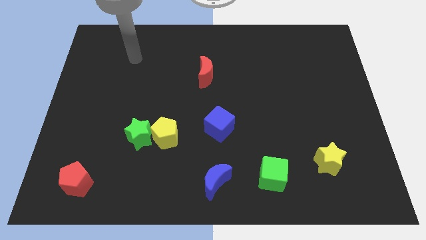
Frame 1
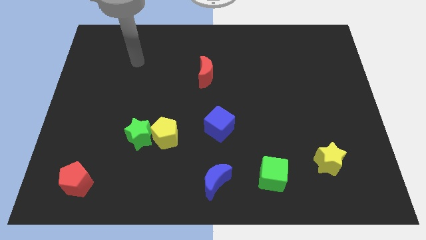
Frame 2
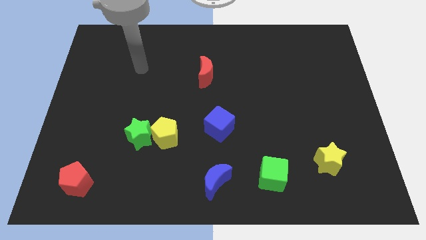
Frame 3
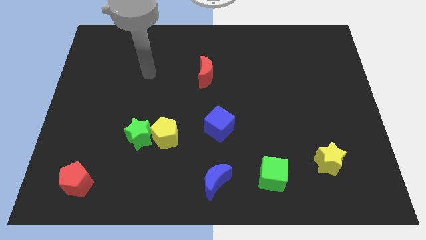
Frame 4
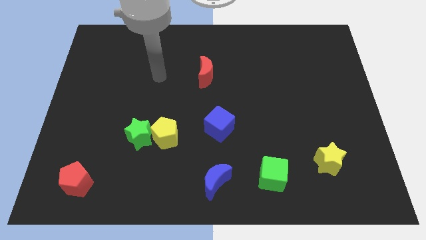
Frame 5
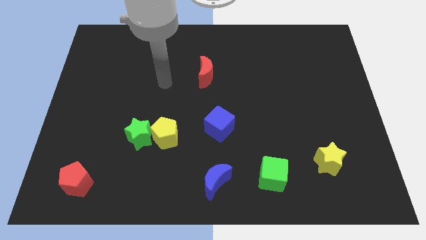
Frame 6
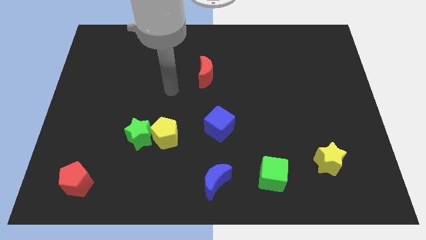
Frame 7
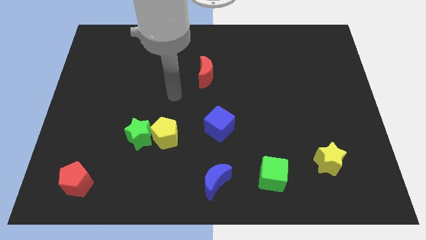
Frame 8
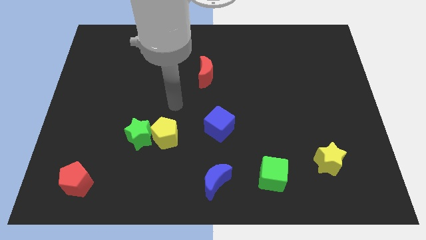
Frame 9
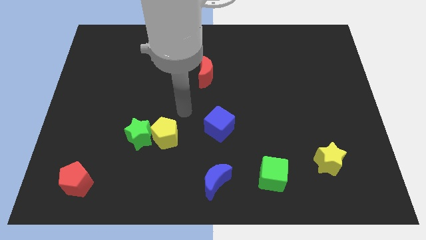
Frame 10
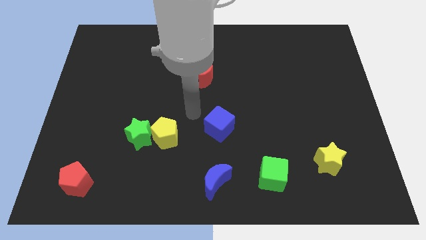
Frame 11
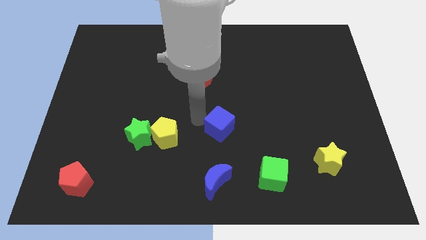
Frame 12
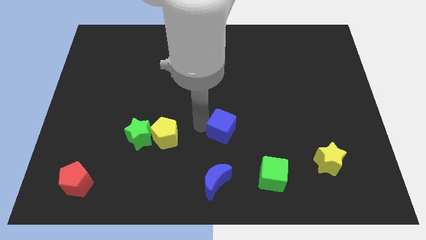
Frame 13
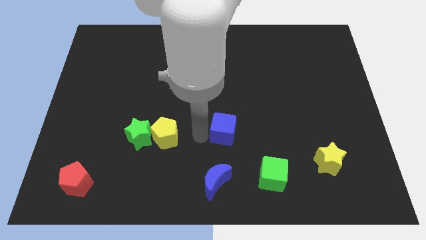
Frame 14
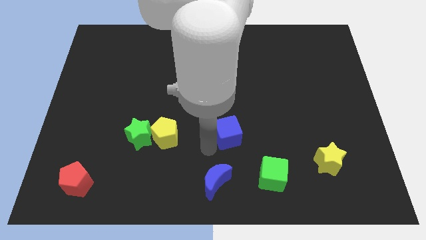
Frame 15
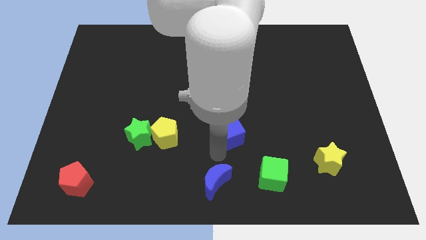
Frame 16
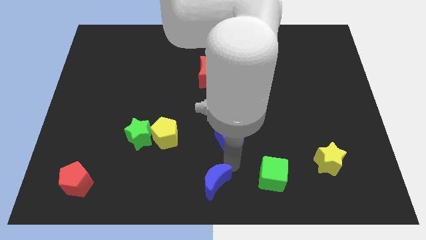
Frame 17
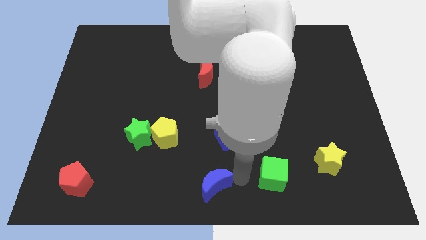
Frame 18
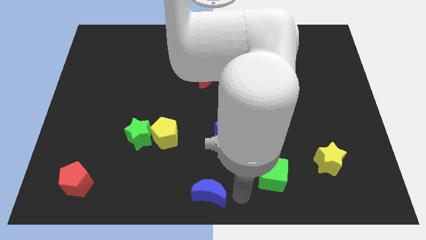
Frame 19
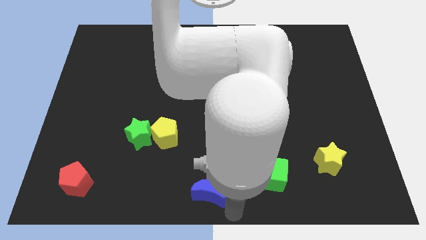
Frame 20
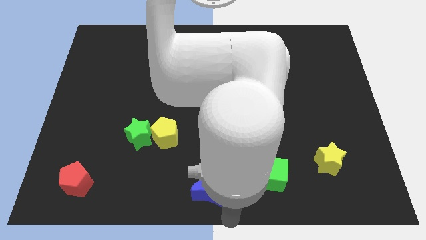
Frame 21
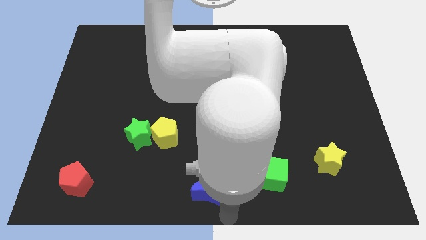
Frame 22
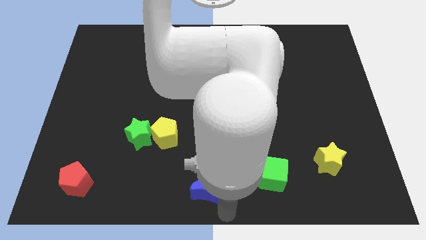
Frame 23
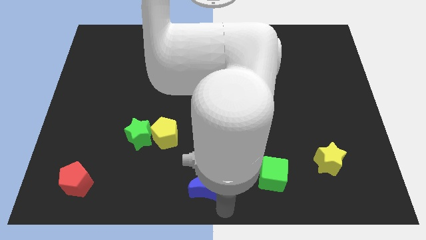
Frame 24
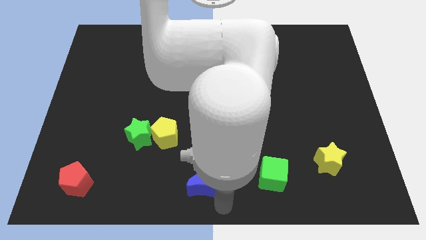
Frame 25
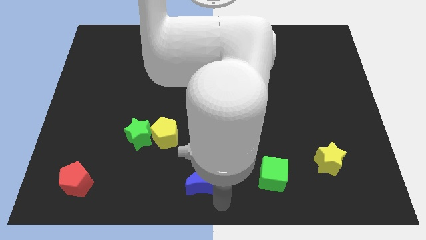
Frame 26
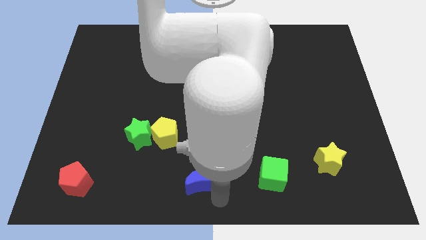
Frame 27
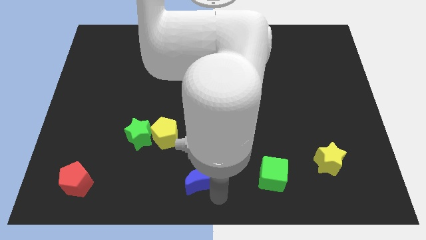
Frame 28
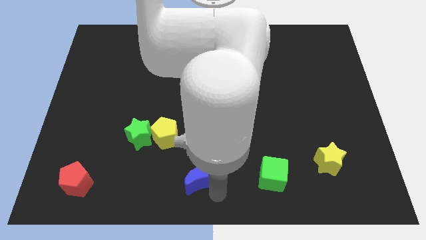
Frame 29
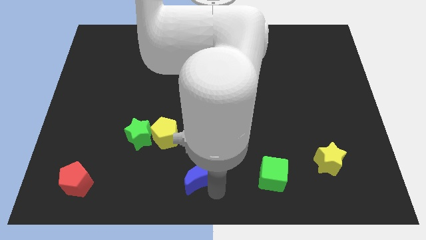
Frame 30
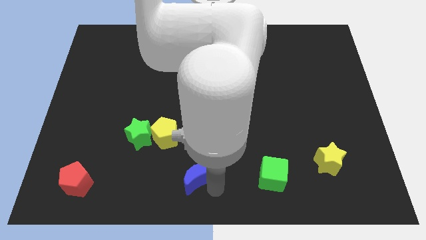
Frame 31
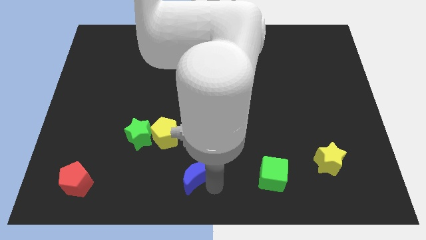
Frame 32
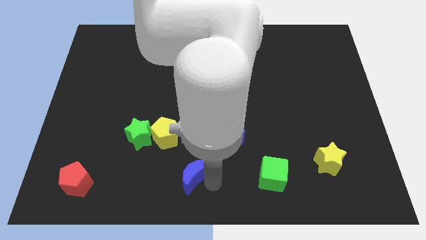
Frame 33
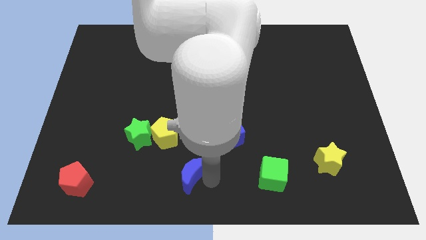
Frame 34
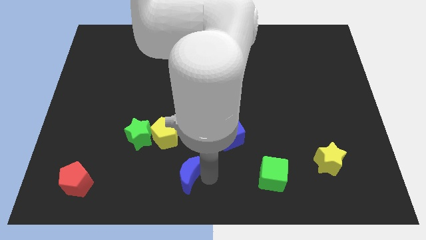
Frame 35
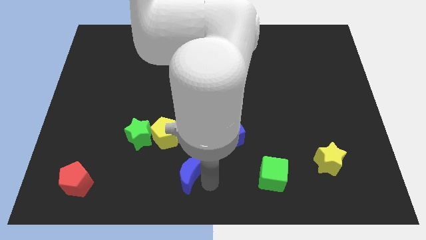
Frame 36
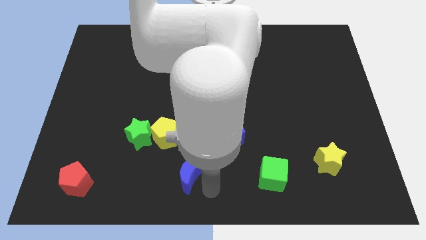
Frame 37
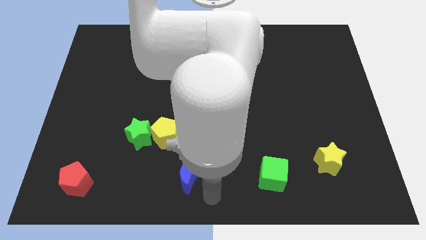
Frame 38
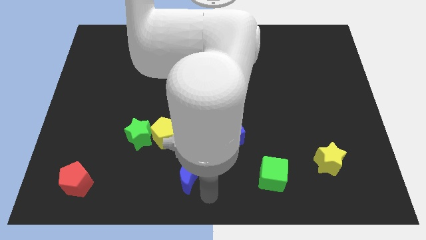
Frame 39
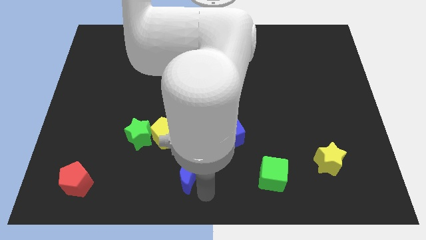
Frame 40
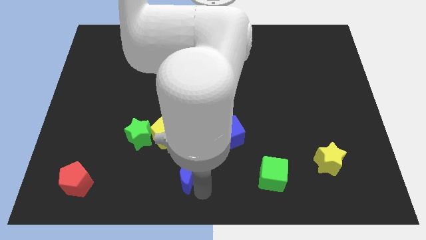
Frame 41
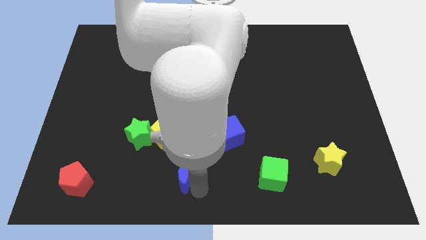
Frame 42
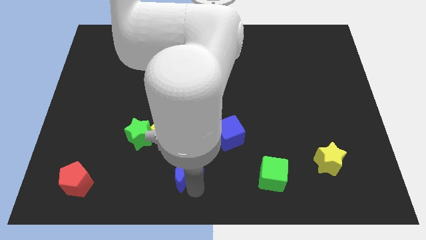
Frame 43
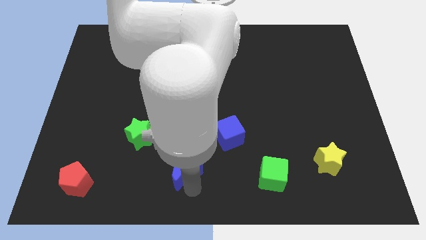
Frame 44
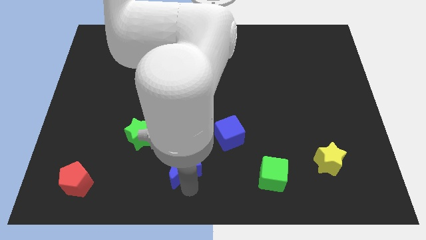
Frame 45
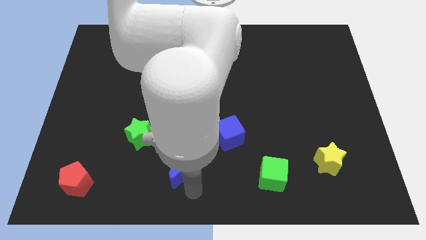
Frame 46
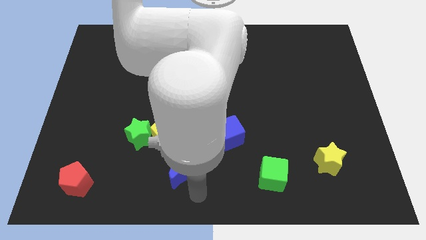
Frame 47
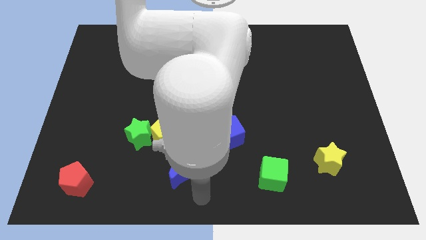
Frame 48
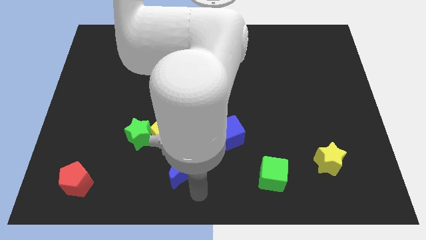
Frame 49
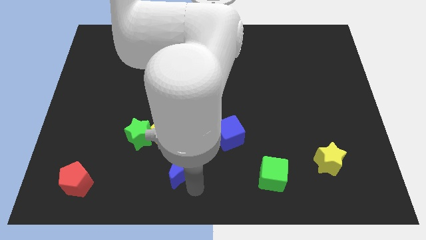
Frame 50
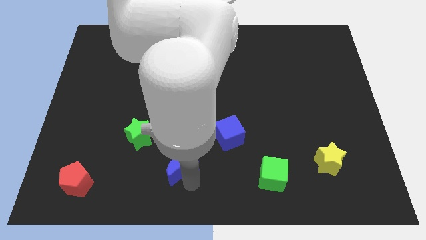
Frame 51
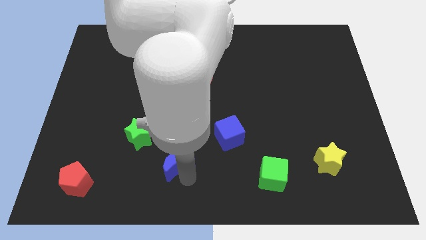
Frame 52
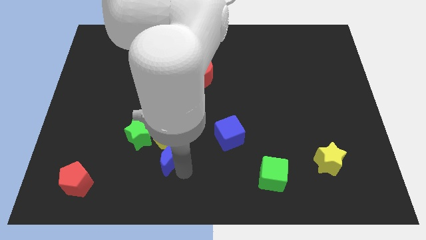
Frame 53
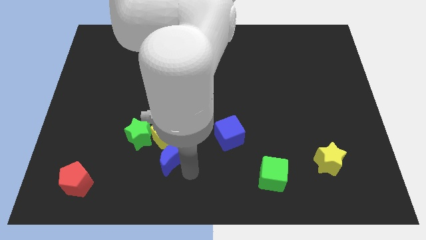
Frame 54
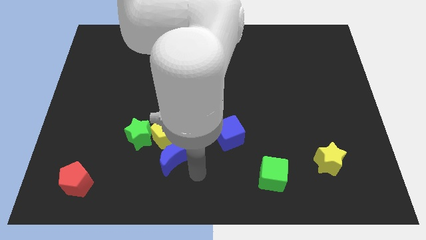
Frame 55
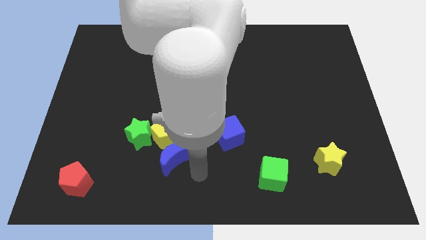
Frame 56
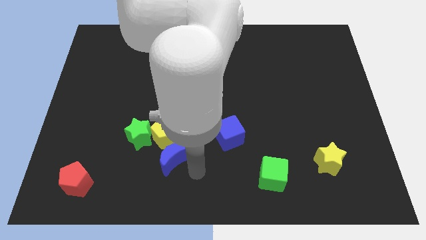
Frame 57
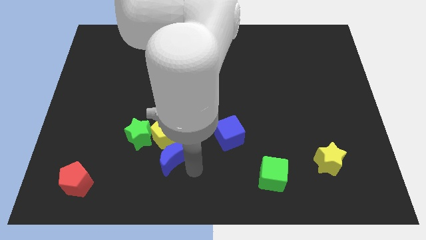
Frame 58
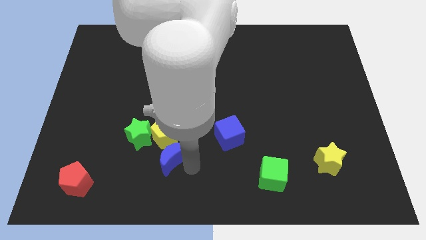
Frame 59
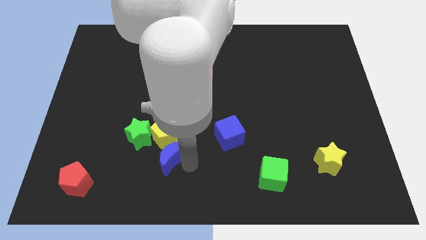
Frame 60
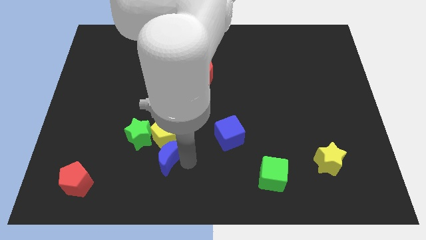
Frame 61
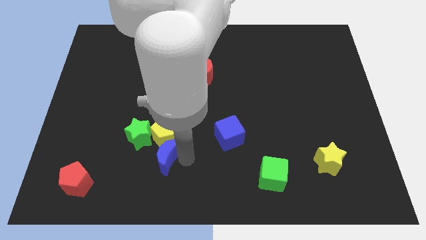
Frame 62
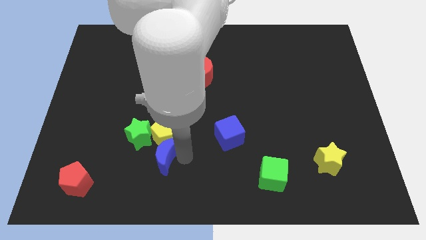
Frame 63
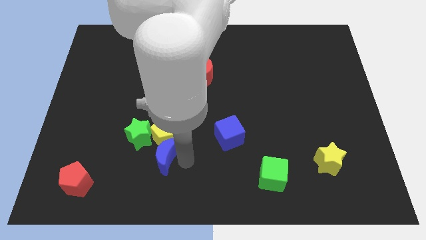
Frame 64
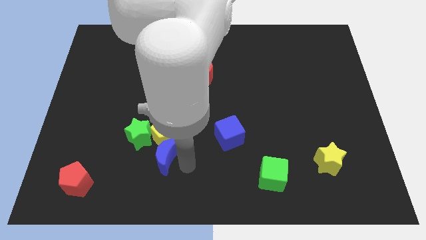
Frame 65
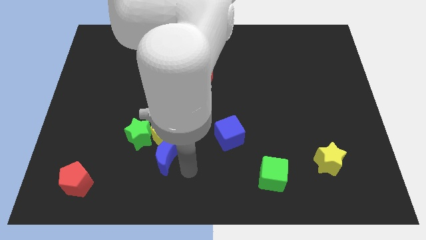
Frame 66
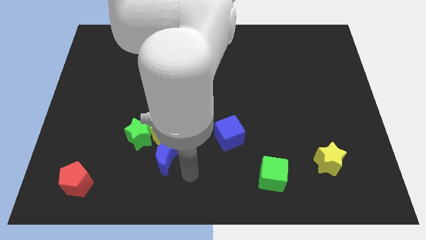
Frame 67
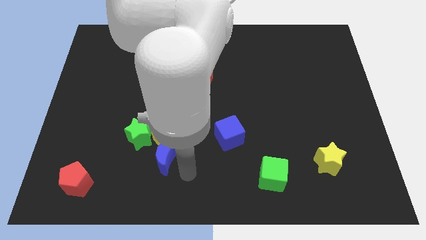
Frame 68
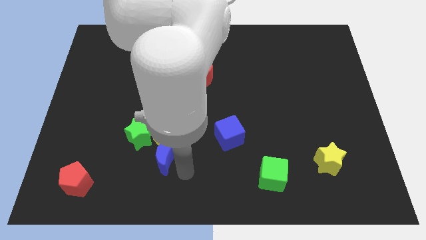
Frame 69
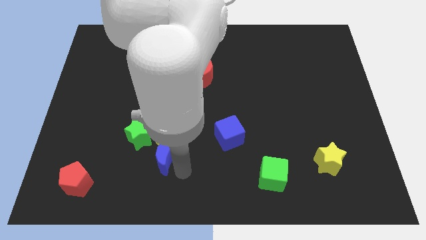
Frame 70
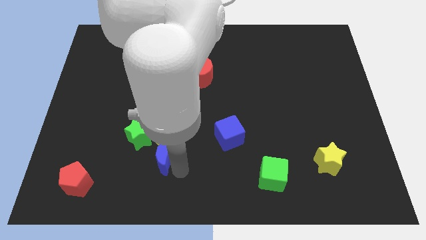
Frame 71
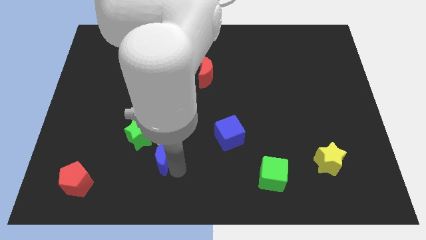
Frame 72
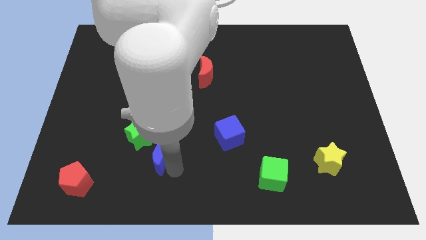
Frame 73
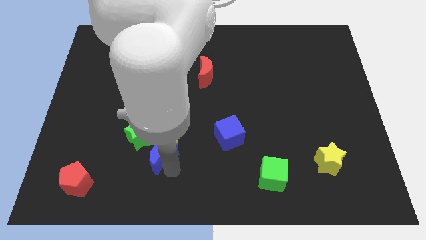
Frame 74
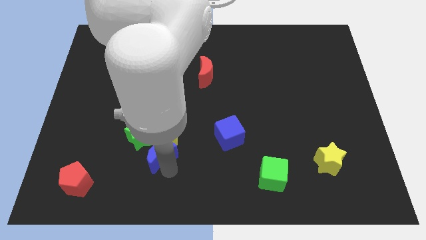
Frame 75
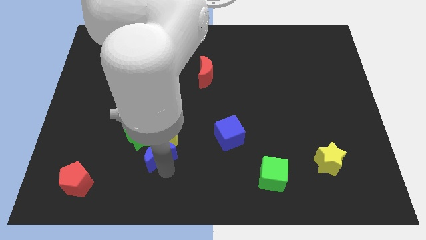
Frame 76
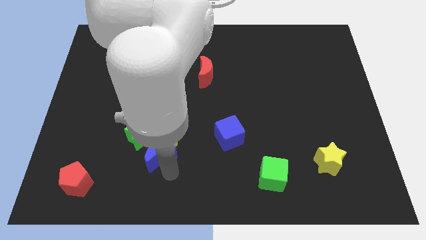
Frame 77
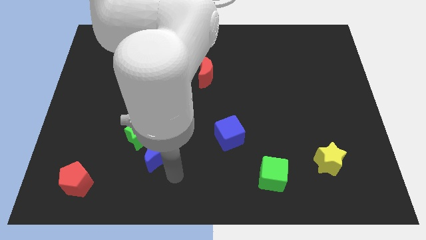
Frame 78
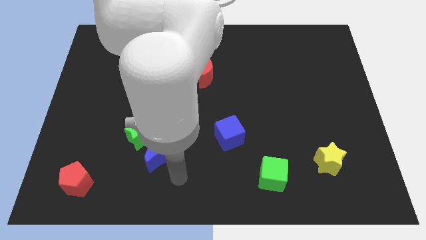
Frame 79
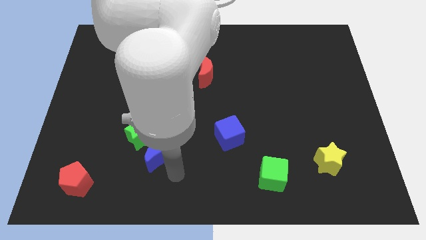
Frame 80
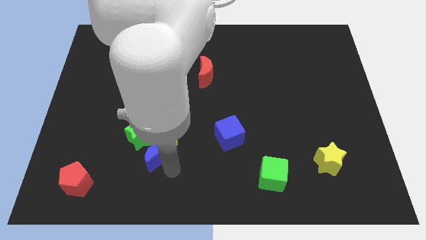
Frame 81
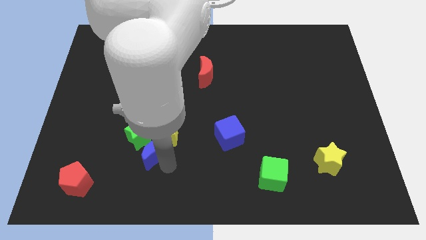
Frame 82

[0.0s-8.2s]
move the blue moon towards the green star
